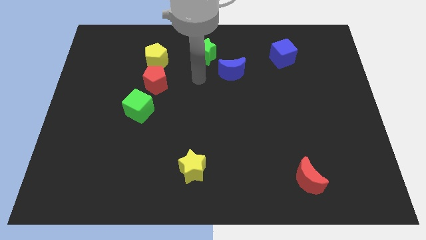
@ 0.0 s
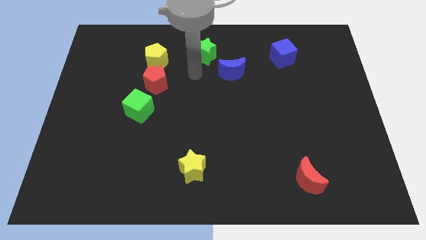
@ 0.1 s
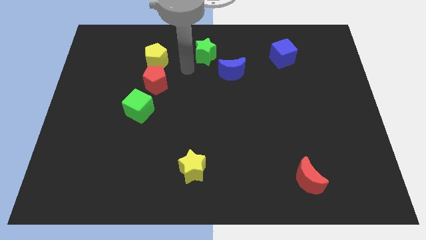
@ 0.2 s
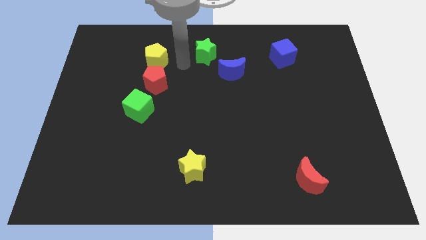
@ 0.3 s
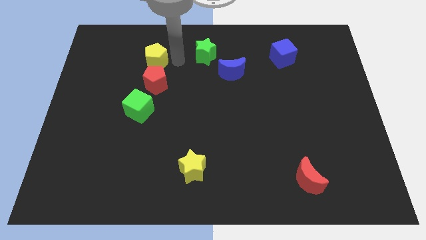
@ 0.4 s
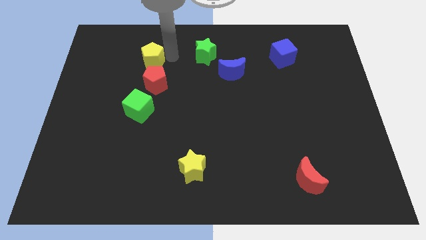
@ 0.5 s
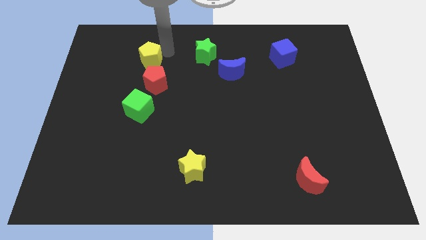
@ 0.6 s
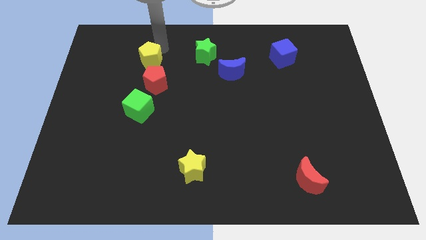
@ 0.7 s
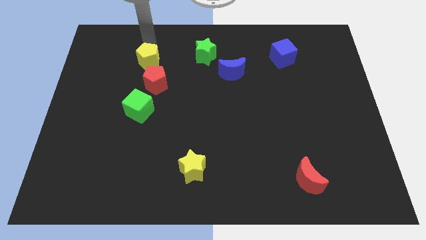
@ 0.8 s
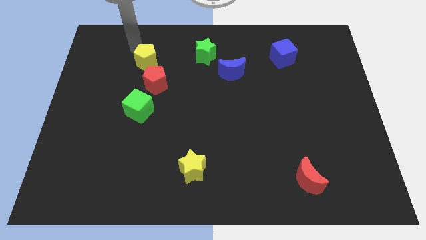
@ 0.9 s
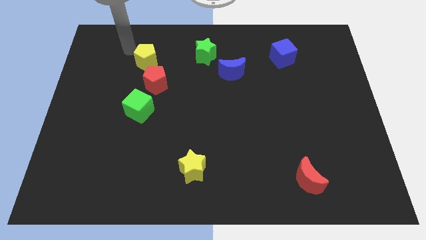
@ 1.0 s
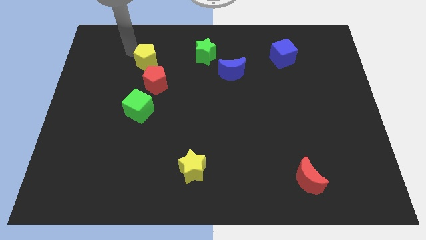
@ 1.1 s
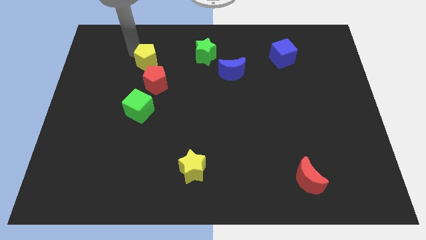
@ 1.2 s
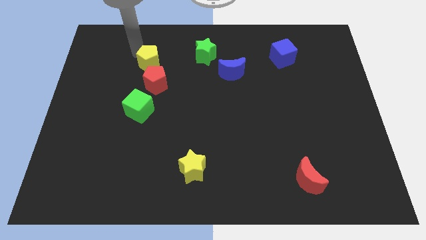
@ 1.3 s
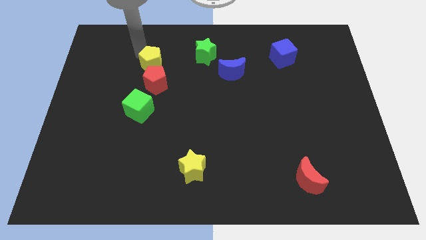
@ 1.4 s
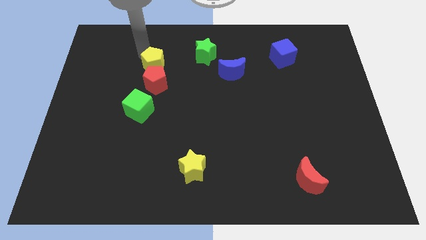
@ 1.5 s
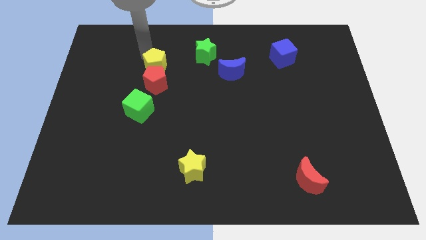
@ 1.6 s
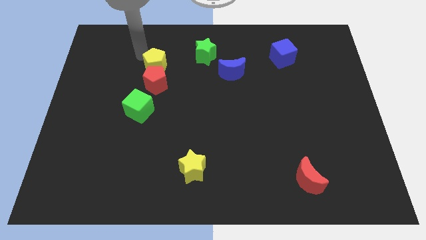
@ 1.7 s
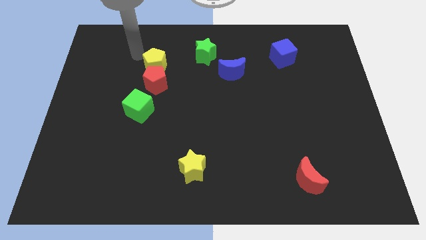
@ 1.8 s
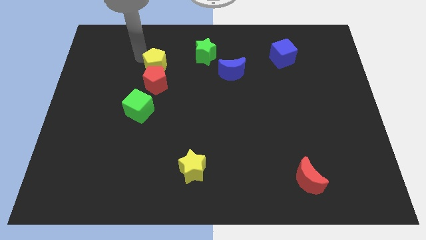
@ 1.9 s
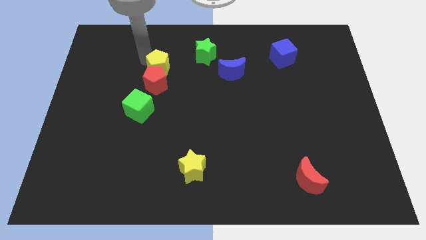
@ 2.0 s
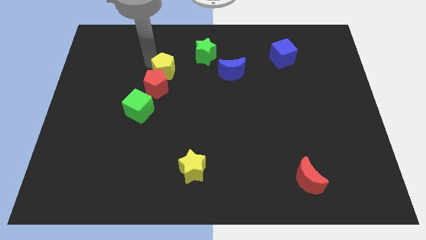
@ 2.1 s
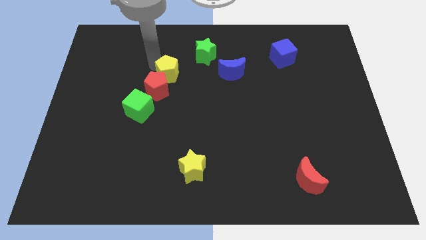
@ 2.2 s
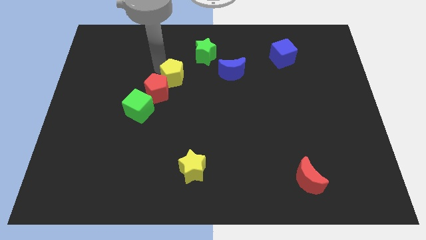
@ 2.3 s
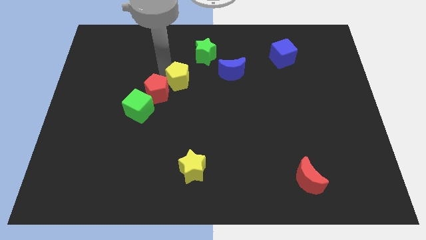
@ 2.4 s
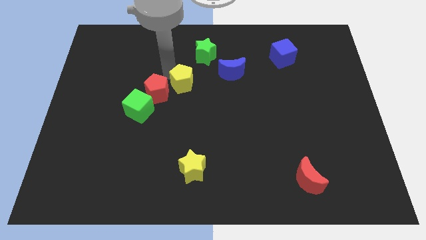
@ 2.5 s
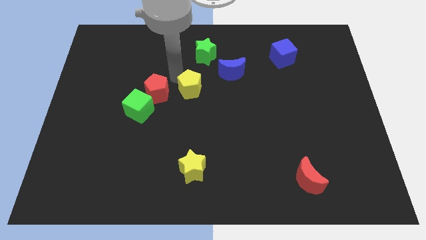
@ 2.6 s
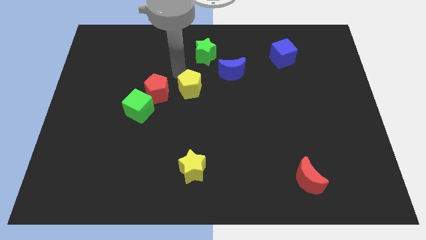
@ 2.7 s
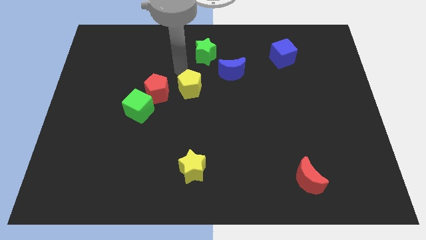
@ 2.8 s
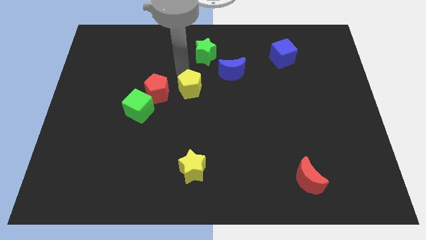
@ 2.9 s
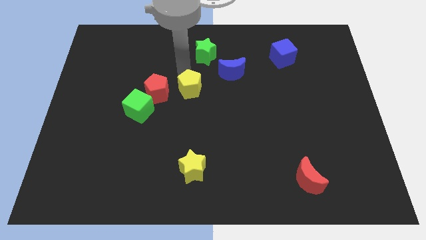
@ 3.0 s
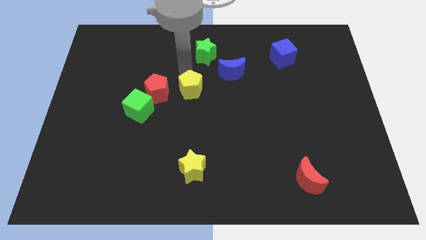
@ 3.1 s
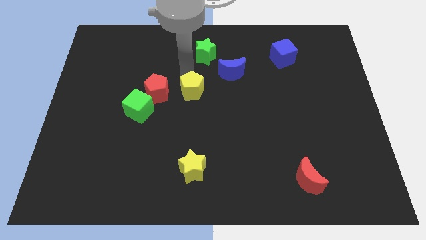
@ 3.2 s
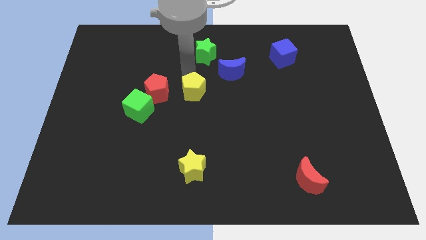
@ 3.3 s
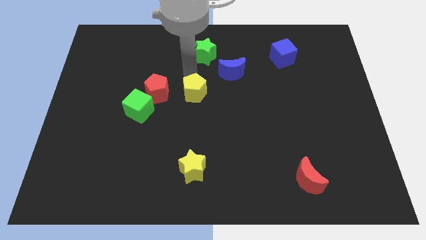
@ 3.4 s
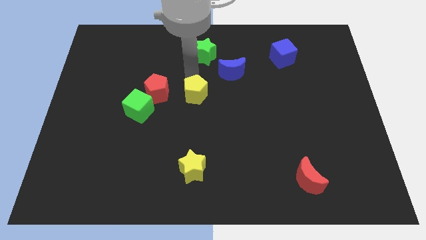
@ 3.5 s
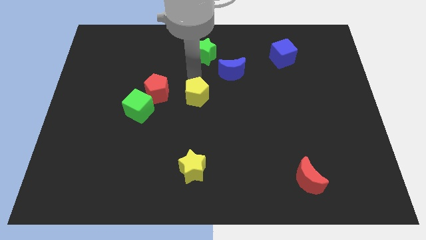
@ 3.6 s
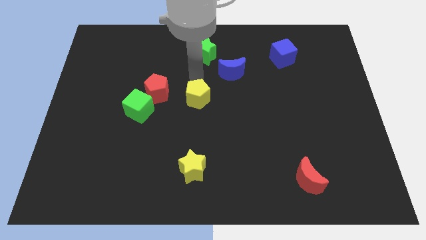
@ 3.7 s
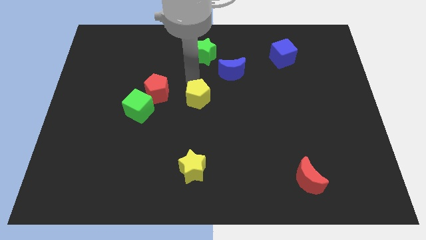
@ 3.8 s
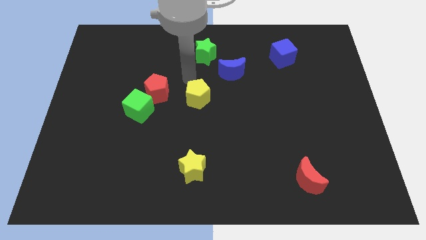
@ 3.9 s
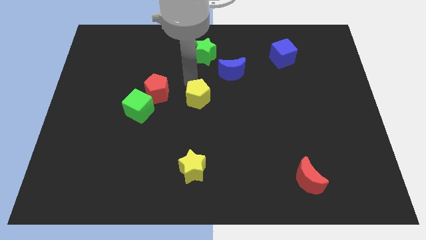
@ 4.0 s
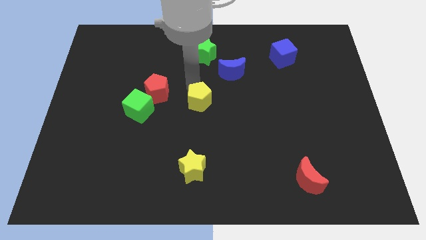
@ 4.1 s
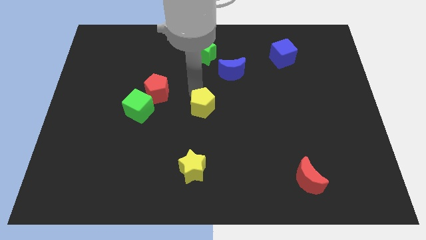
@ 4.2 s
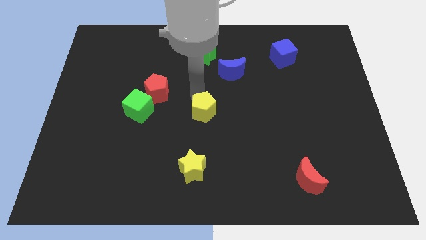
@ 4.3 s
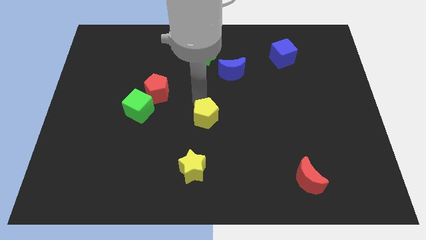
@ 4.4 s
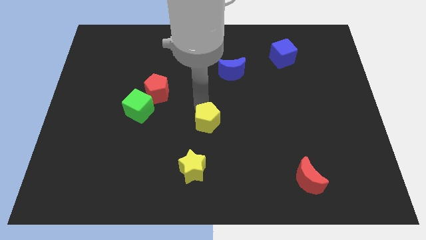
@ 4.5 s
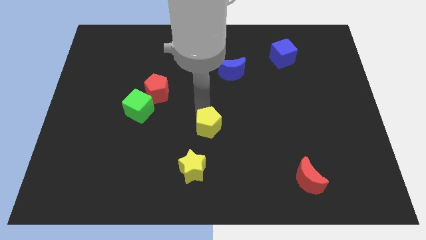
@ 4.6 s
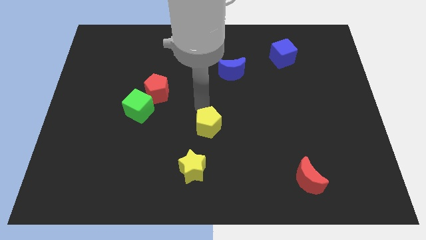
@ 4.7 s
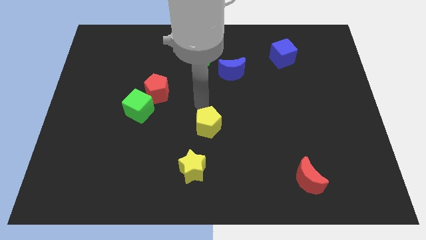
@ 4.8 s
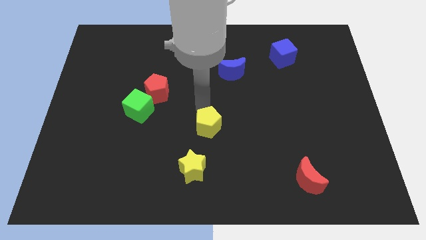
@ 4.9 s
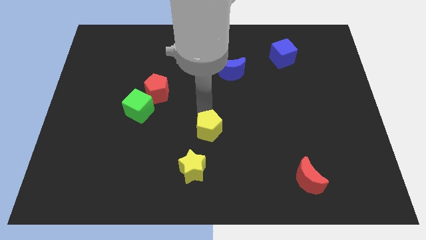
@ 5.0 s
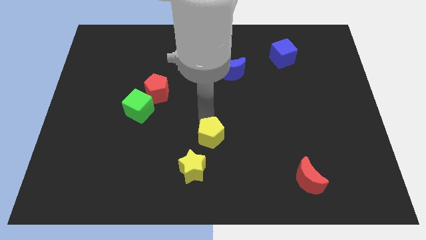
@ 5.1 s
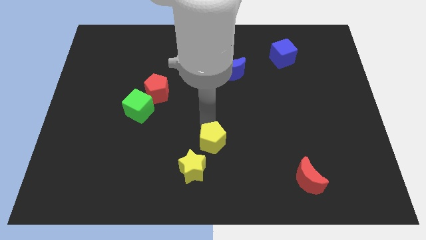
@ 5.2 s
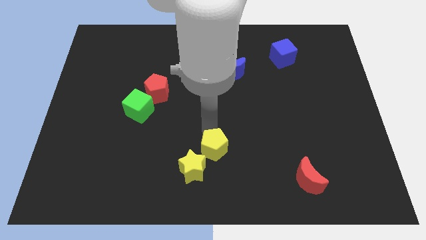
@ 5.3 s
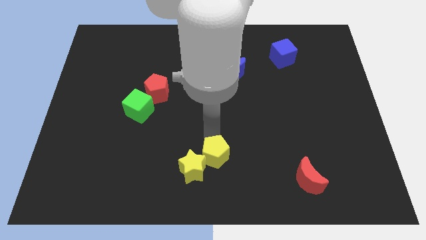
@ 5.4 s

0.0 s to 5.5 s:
move the yellow pentagon to the bottom side

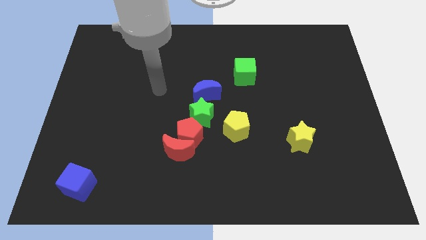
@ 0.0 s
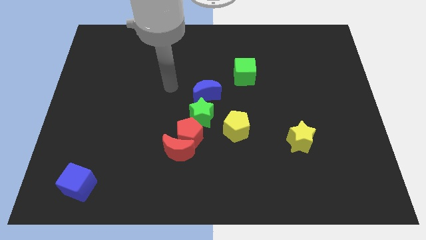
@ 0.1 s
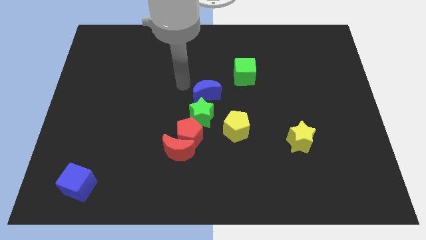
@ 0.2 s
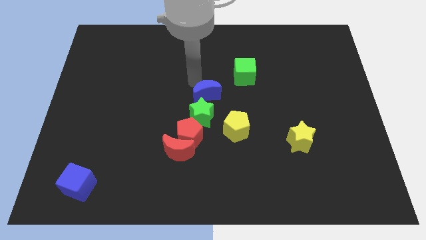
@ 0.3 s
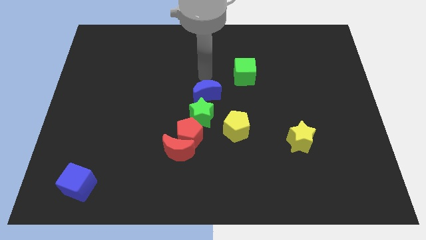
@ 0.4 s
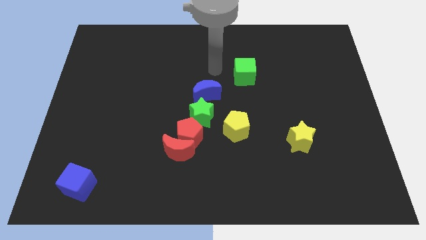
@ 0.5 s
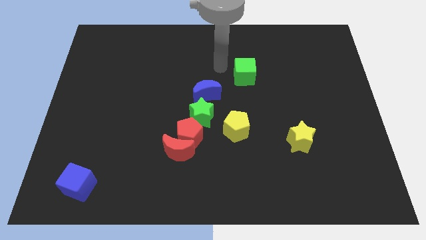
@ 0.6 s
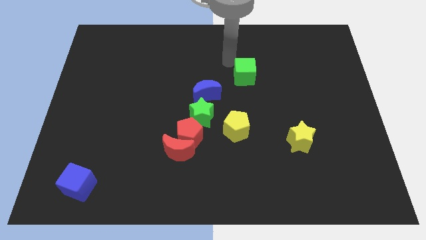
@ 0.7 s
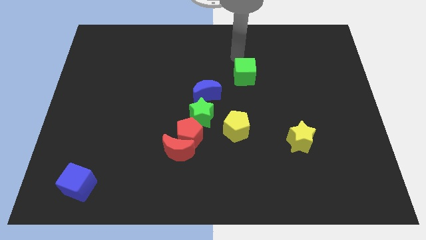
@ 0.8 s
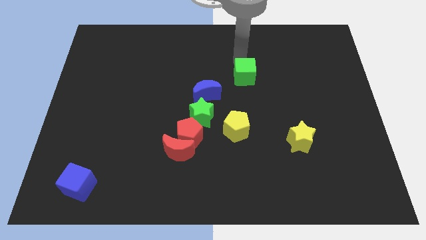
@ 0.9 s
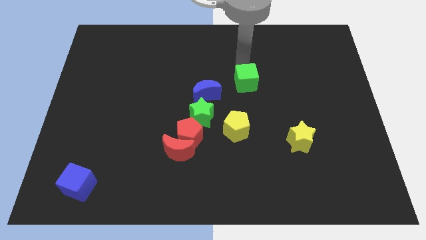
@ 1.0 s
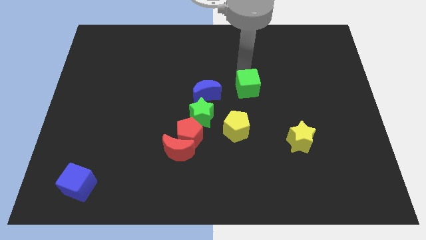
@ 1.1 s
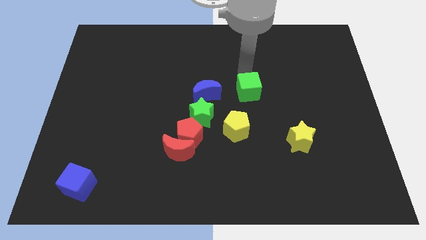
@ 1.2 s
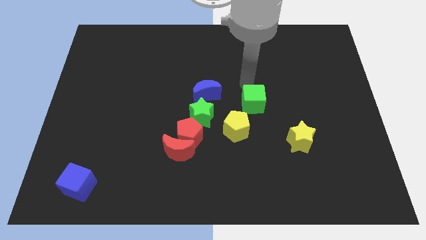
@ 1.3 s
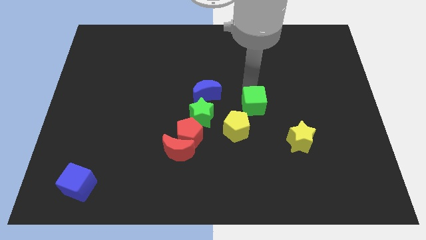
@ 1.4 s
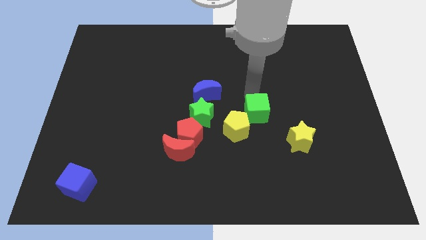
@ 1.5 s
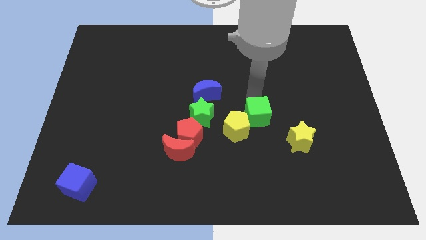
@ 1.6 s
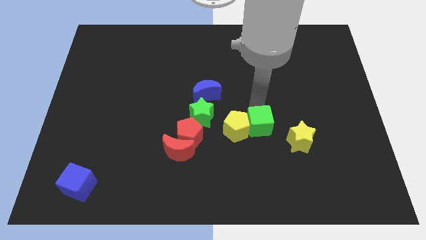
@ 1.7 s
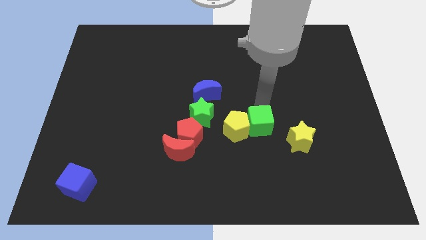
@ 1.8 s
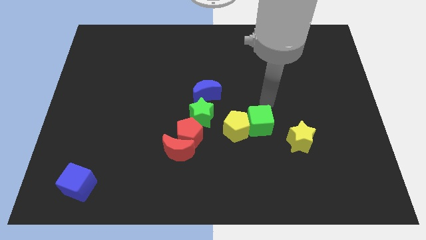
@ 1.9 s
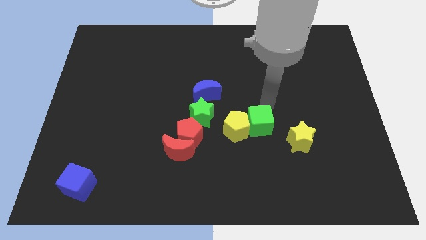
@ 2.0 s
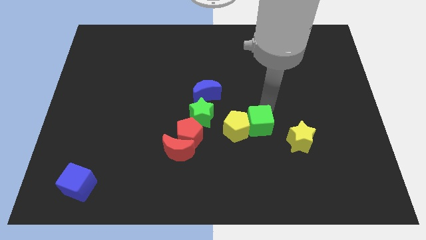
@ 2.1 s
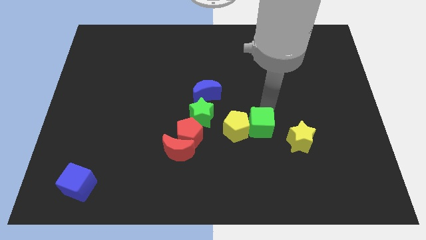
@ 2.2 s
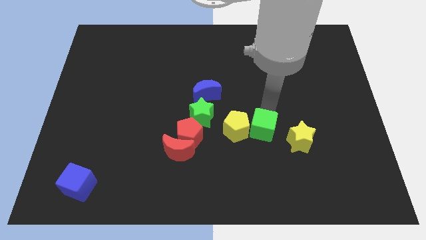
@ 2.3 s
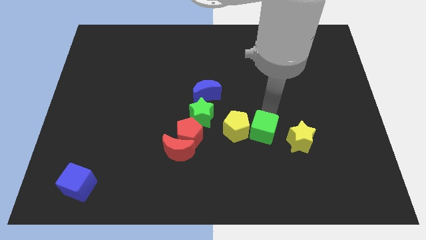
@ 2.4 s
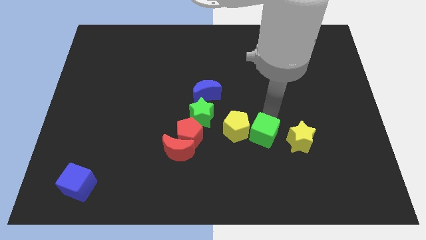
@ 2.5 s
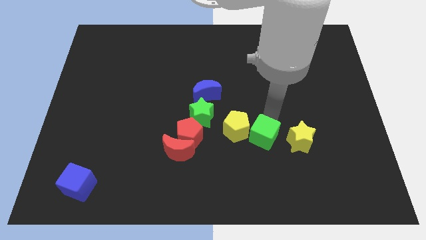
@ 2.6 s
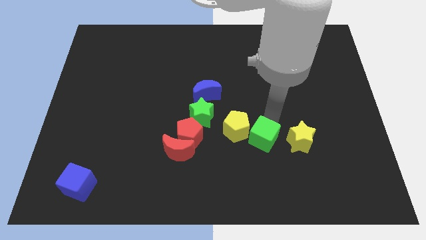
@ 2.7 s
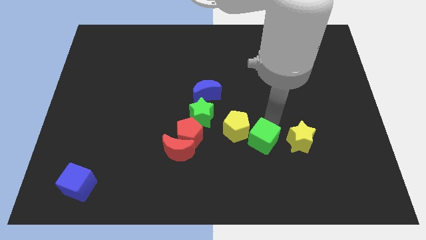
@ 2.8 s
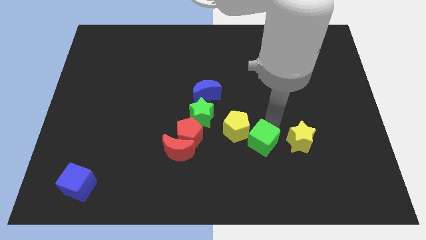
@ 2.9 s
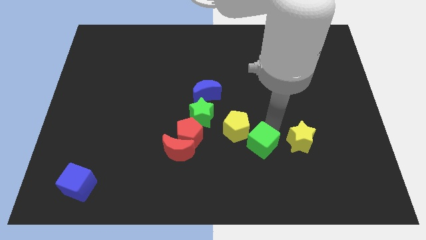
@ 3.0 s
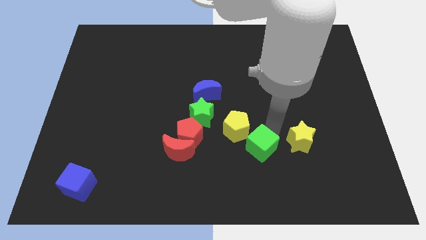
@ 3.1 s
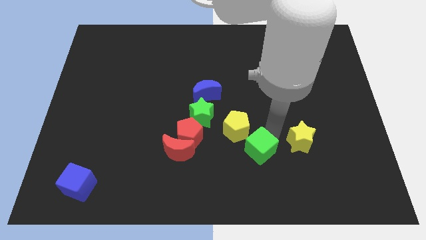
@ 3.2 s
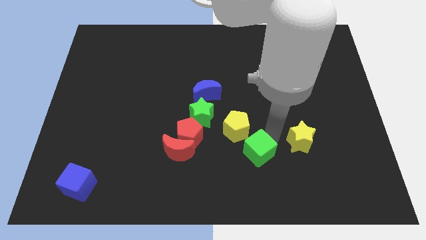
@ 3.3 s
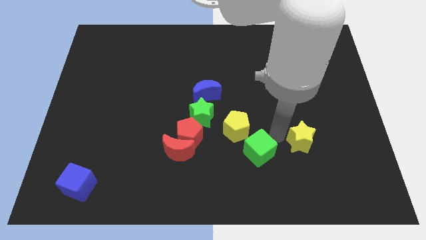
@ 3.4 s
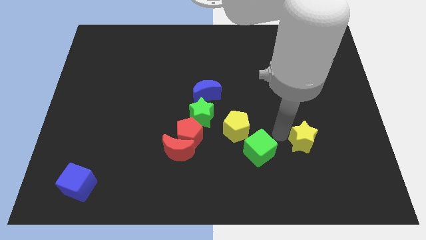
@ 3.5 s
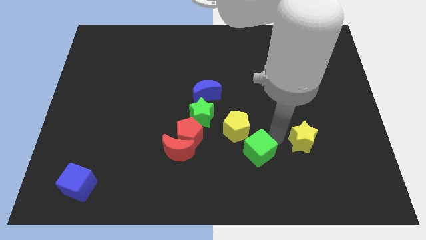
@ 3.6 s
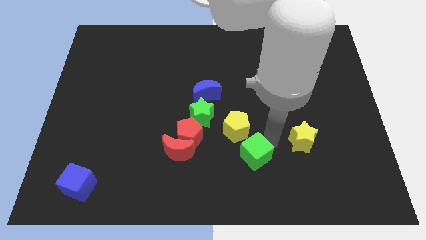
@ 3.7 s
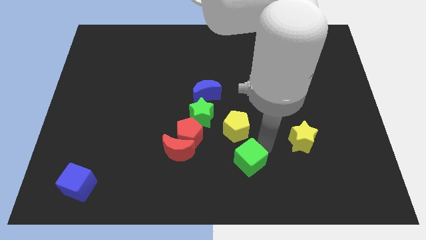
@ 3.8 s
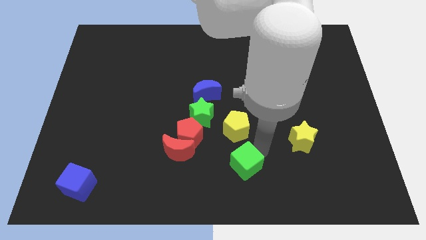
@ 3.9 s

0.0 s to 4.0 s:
slide the green cube to the bottom
